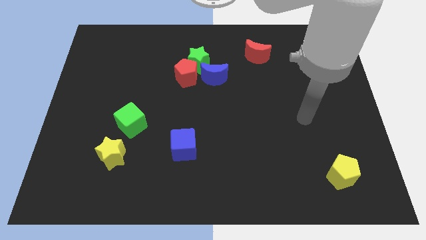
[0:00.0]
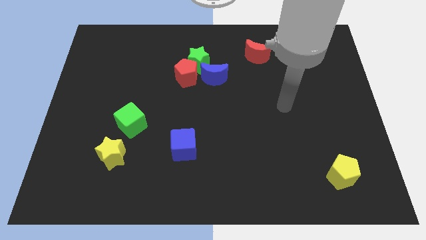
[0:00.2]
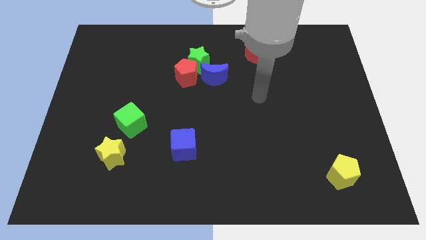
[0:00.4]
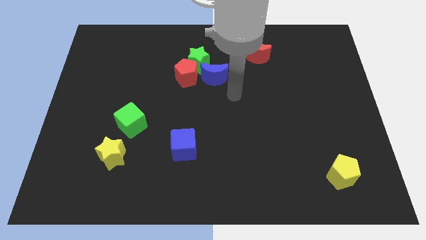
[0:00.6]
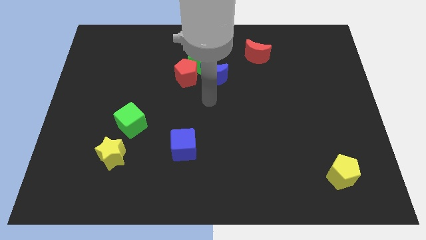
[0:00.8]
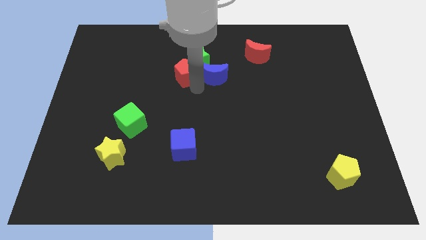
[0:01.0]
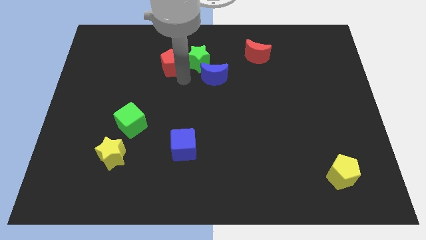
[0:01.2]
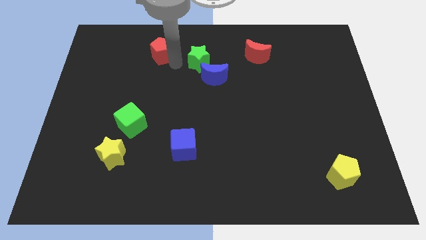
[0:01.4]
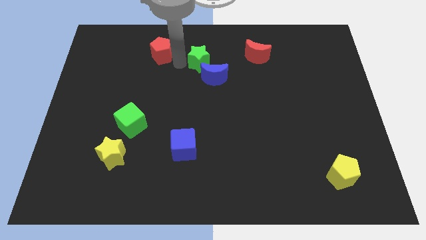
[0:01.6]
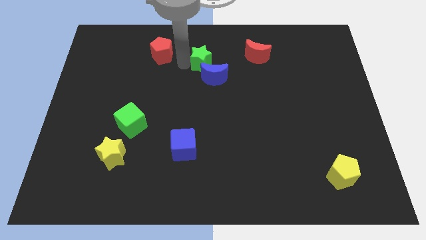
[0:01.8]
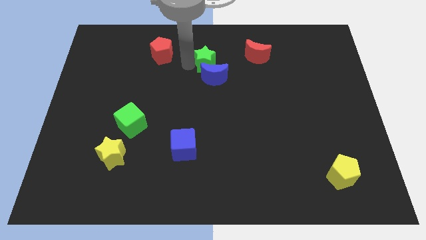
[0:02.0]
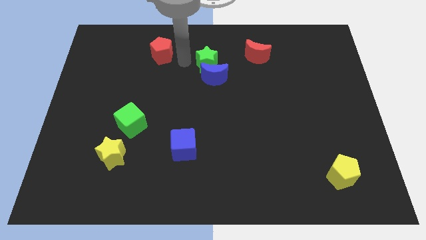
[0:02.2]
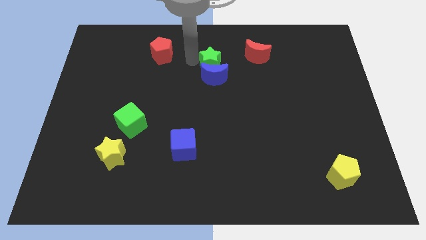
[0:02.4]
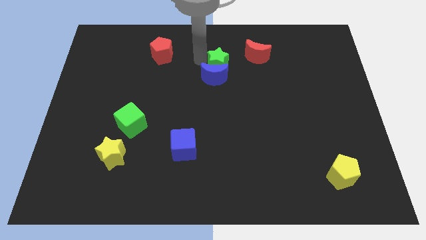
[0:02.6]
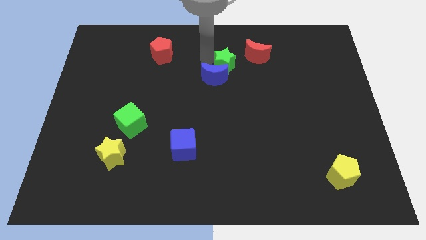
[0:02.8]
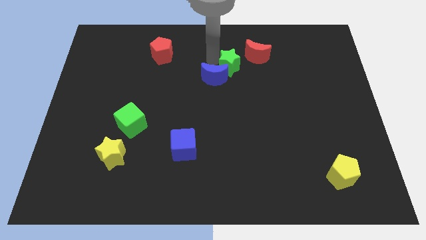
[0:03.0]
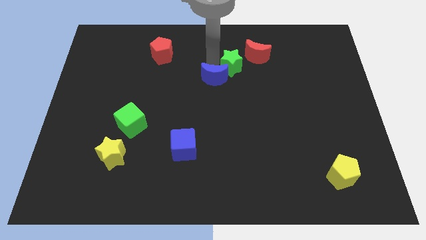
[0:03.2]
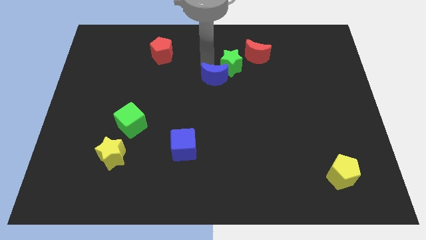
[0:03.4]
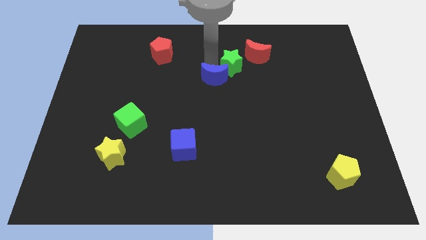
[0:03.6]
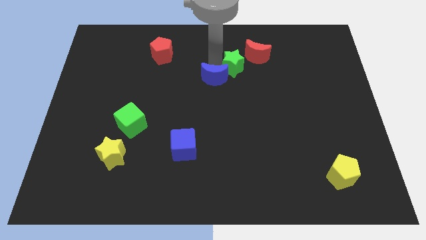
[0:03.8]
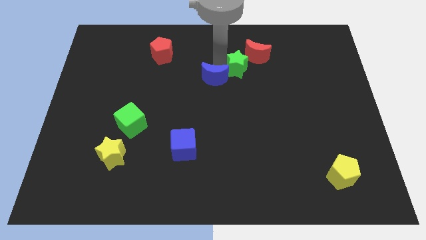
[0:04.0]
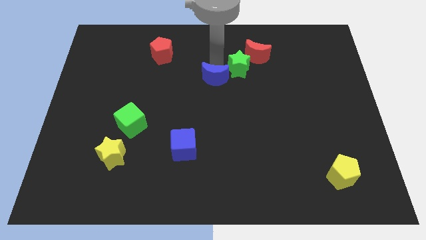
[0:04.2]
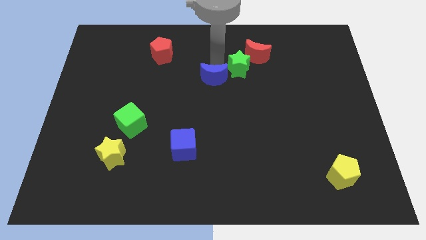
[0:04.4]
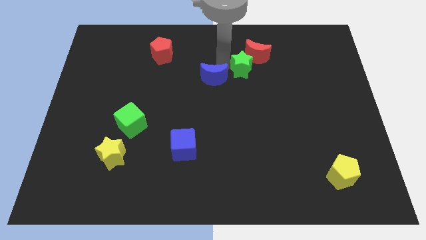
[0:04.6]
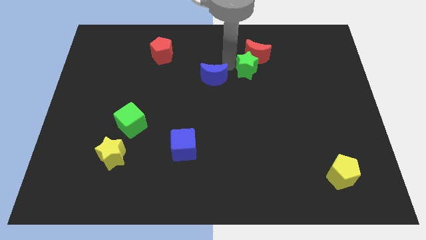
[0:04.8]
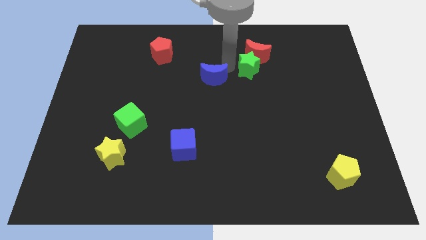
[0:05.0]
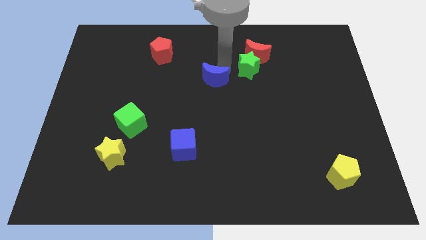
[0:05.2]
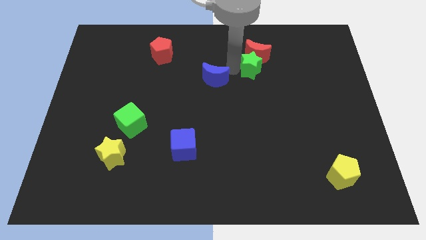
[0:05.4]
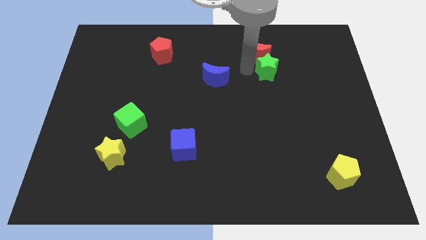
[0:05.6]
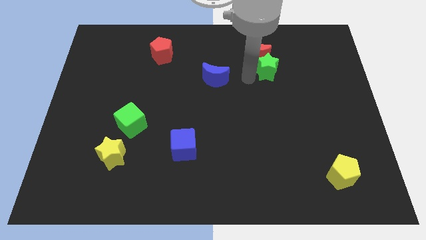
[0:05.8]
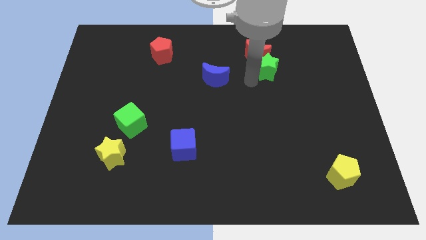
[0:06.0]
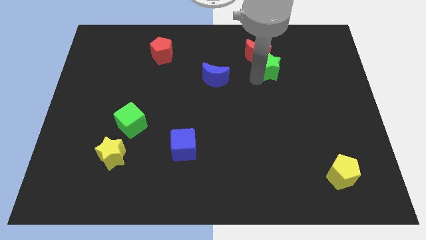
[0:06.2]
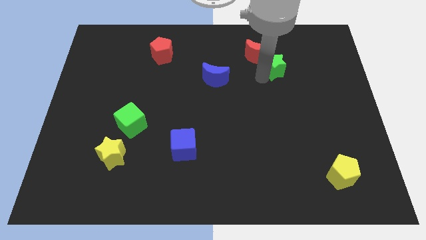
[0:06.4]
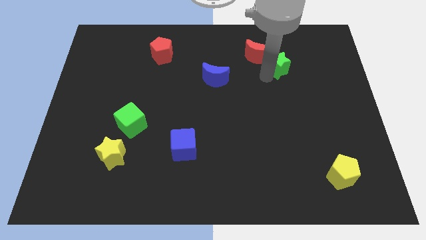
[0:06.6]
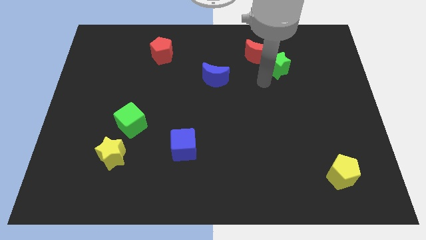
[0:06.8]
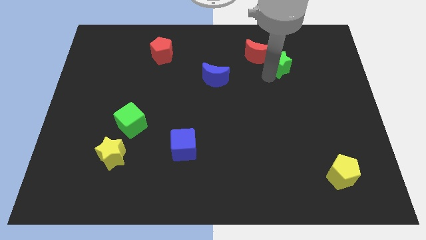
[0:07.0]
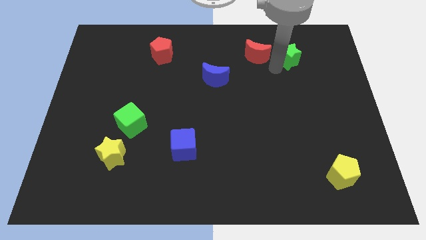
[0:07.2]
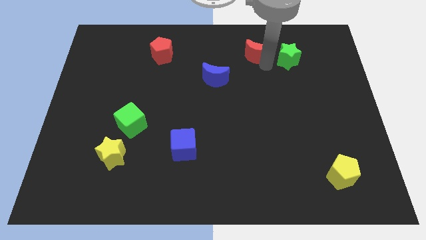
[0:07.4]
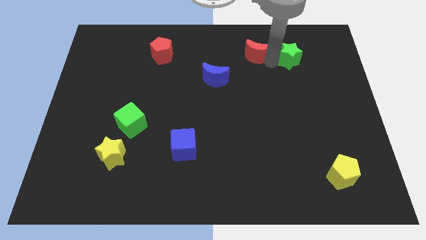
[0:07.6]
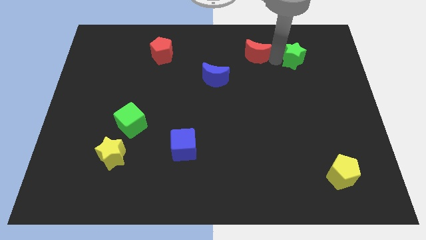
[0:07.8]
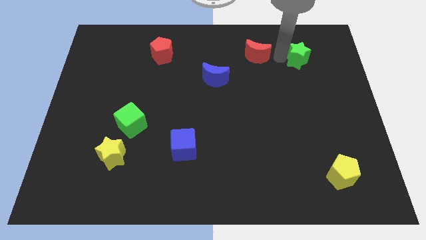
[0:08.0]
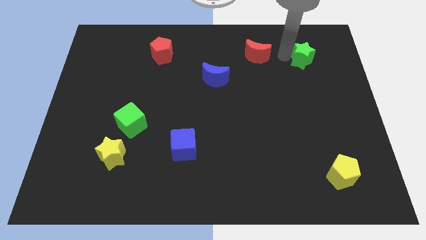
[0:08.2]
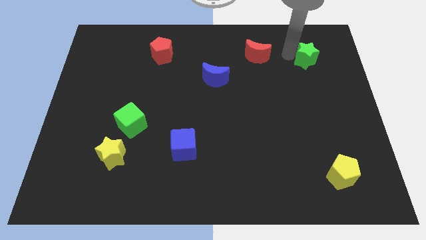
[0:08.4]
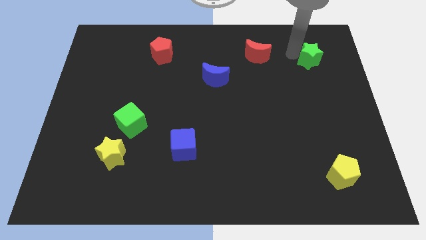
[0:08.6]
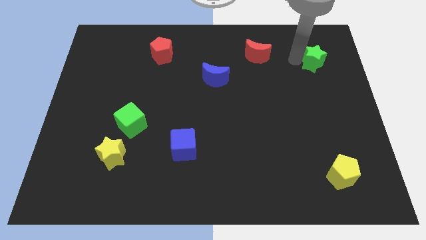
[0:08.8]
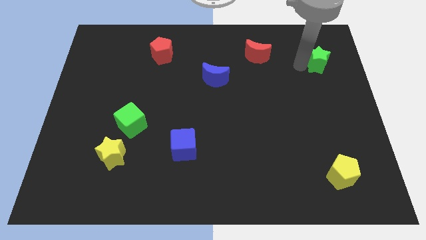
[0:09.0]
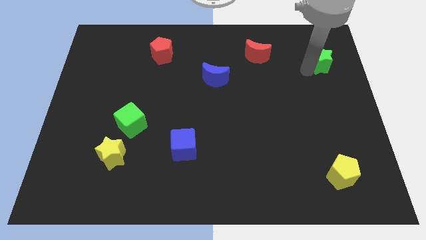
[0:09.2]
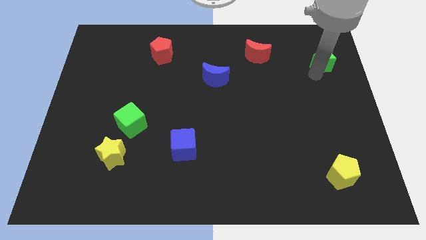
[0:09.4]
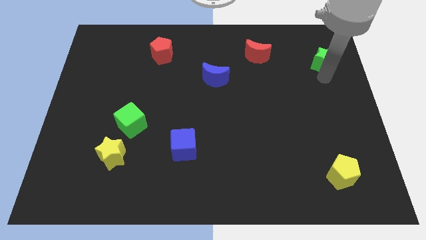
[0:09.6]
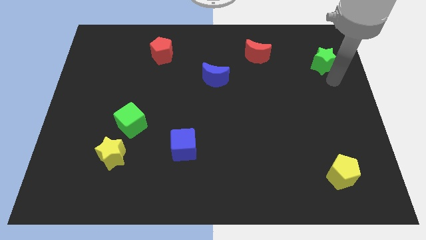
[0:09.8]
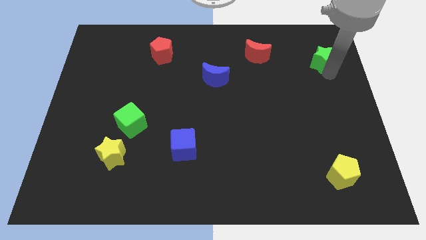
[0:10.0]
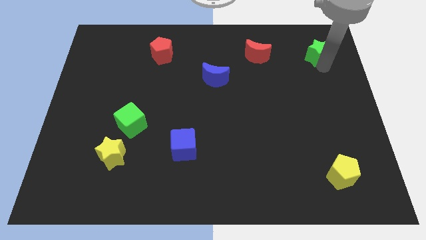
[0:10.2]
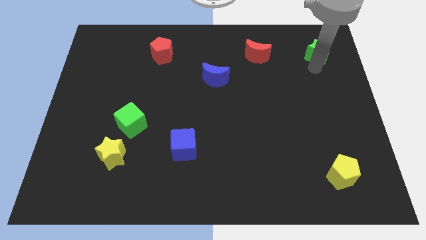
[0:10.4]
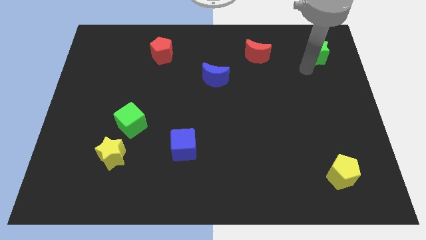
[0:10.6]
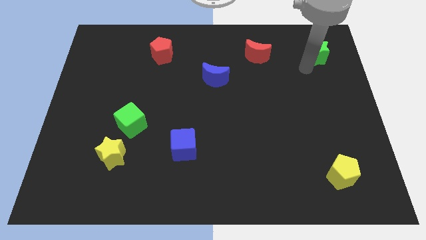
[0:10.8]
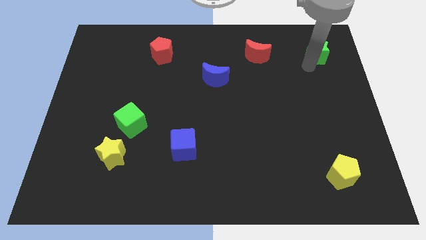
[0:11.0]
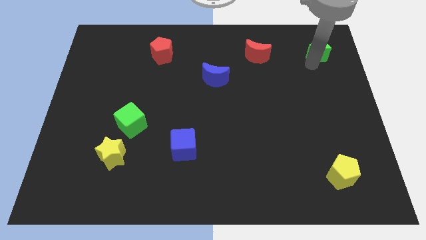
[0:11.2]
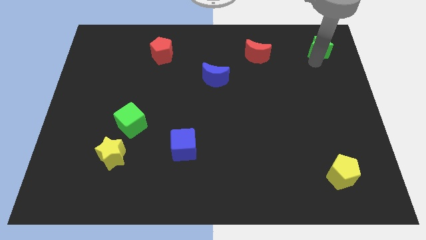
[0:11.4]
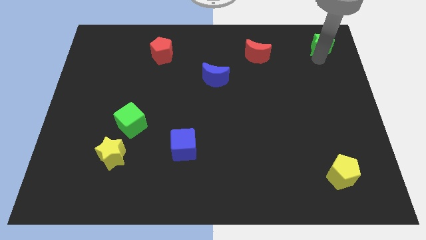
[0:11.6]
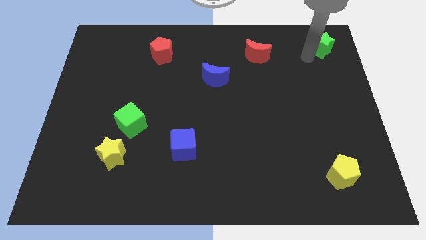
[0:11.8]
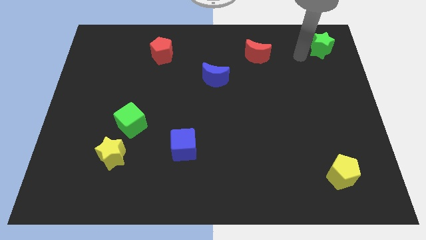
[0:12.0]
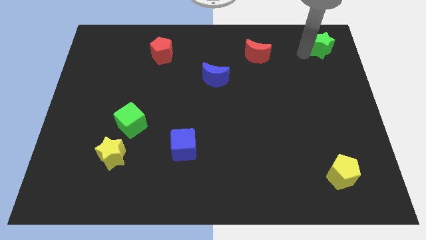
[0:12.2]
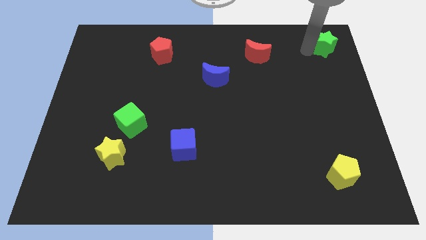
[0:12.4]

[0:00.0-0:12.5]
put the green star to the top right

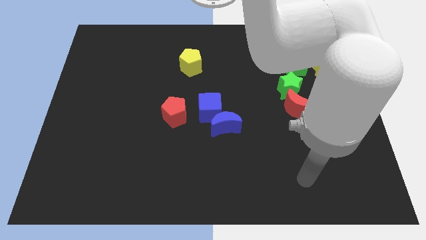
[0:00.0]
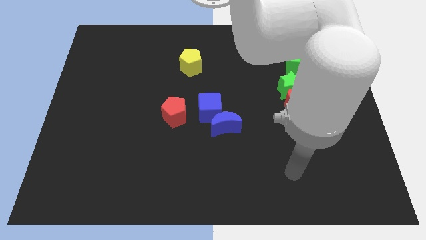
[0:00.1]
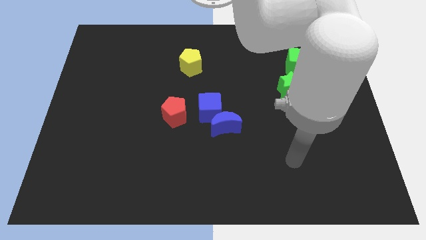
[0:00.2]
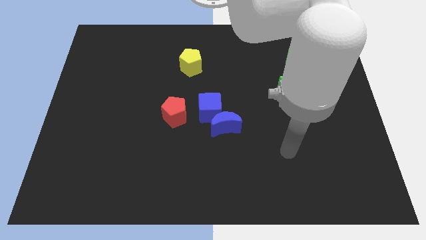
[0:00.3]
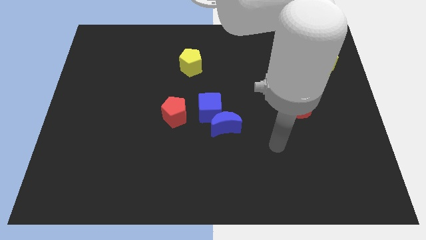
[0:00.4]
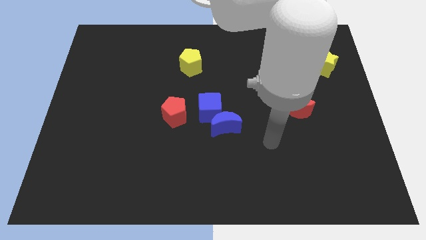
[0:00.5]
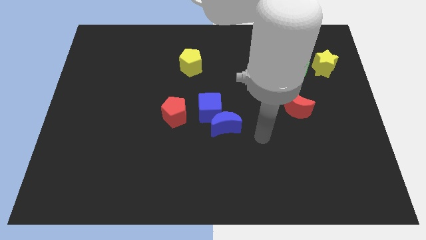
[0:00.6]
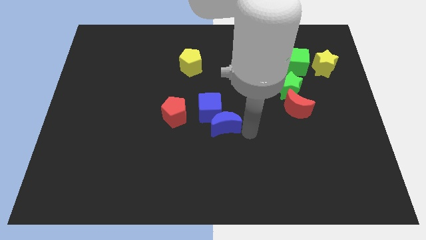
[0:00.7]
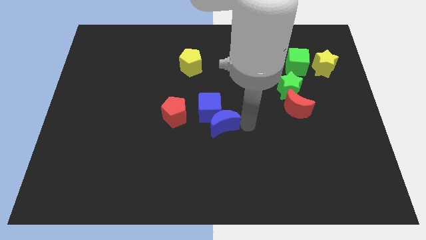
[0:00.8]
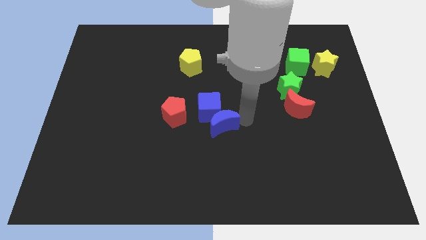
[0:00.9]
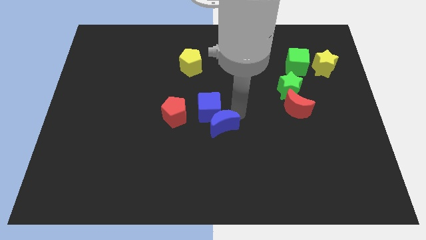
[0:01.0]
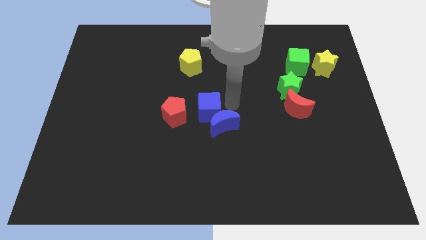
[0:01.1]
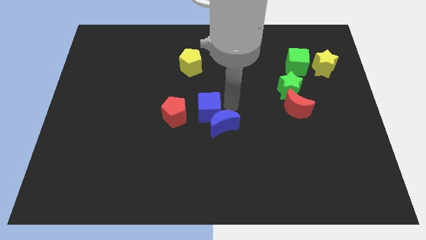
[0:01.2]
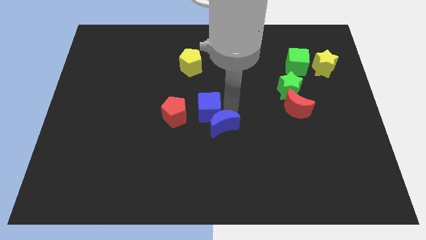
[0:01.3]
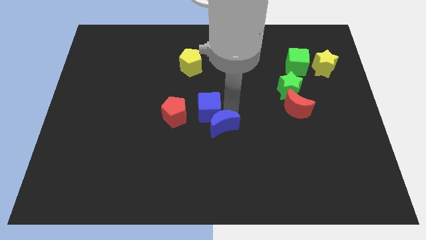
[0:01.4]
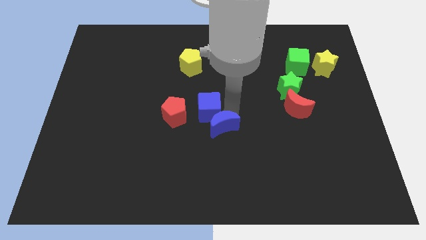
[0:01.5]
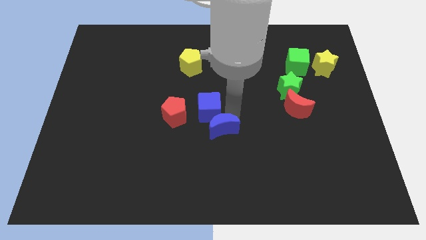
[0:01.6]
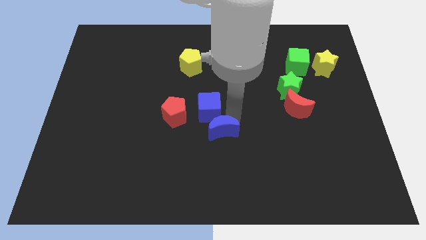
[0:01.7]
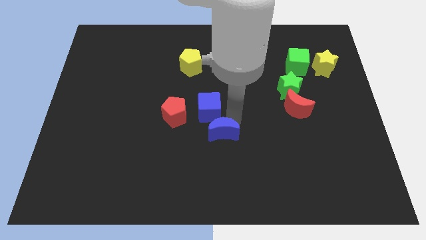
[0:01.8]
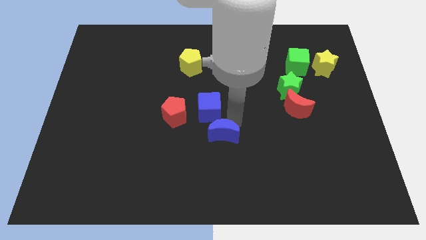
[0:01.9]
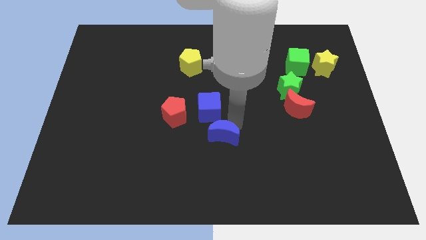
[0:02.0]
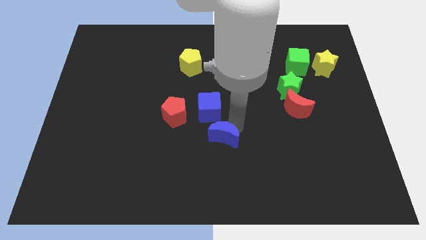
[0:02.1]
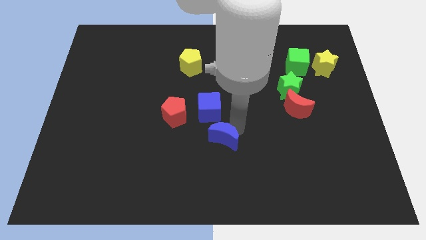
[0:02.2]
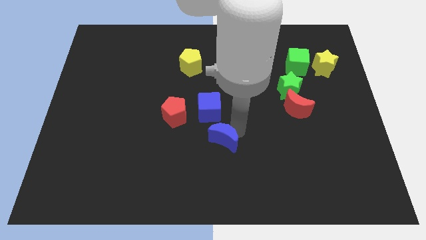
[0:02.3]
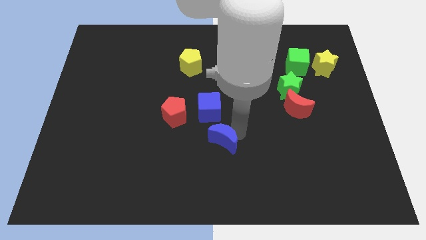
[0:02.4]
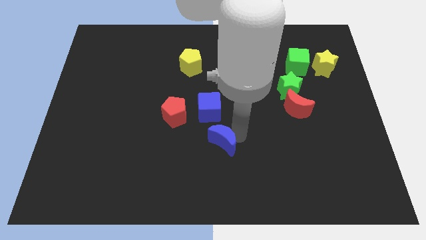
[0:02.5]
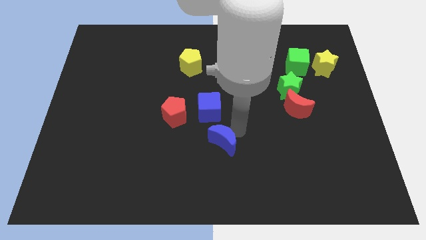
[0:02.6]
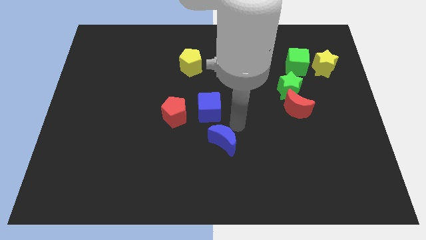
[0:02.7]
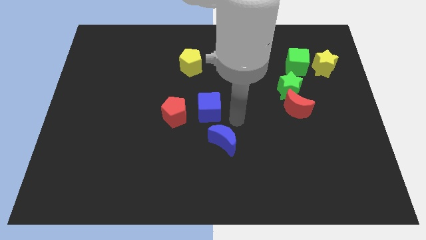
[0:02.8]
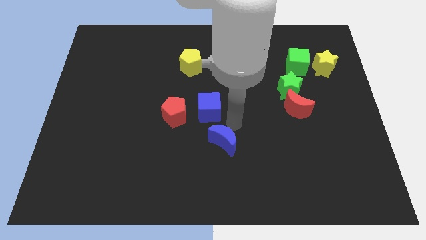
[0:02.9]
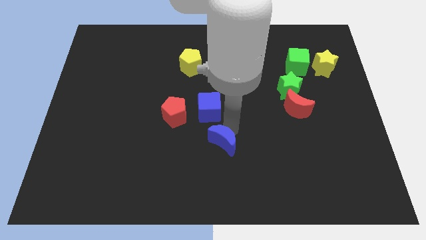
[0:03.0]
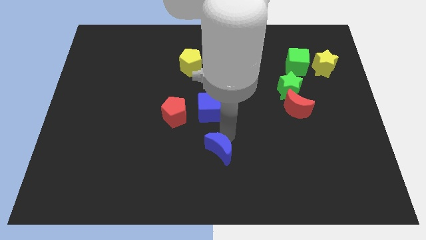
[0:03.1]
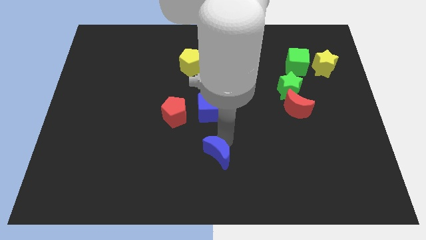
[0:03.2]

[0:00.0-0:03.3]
slide the blue moon to the bottom
